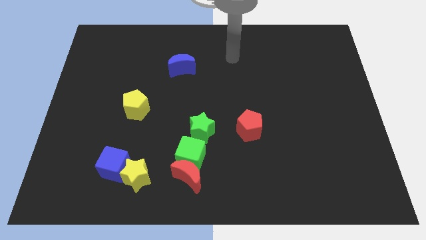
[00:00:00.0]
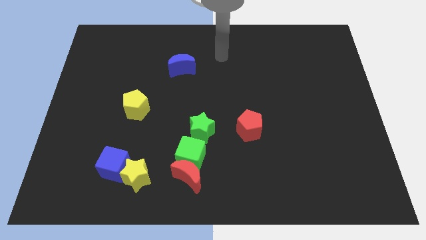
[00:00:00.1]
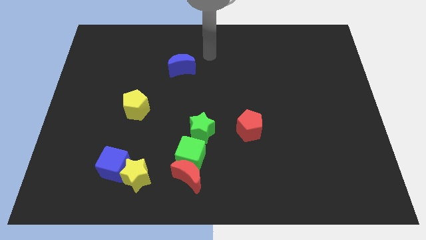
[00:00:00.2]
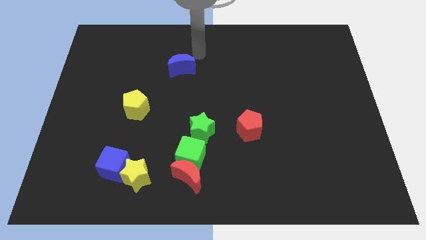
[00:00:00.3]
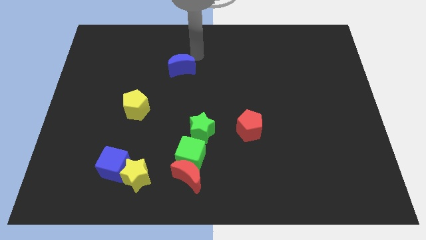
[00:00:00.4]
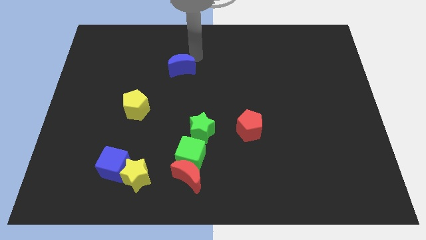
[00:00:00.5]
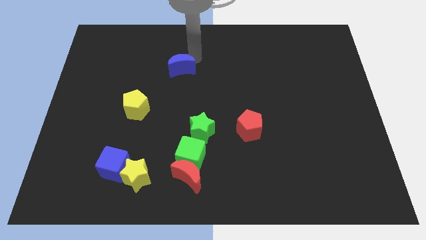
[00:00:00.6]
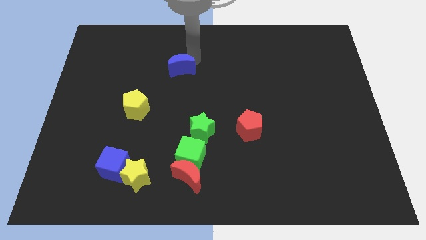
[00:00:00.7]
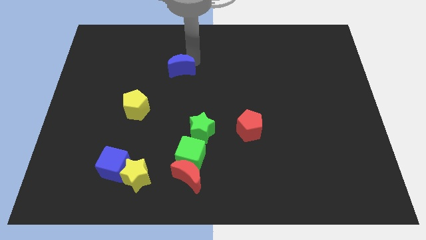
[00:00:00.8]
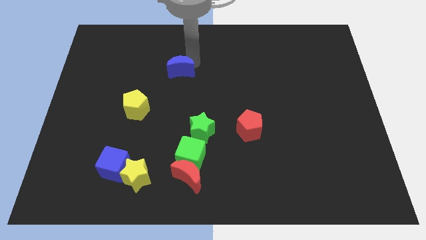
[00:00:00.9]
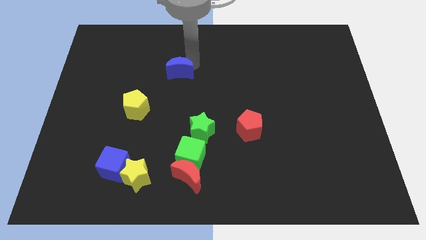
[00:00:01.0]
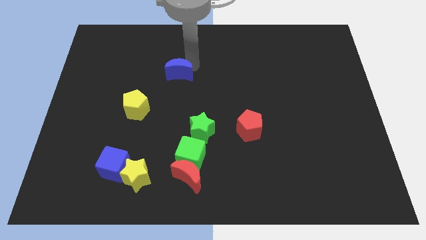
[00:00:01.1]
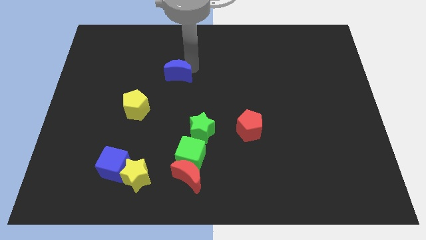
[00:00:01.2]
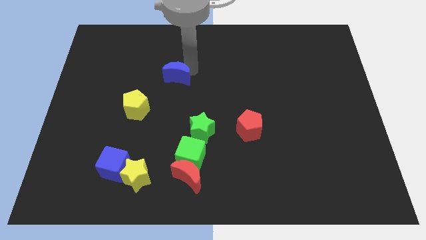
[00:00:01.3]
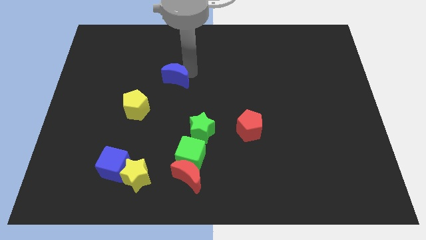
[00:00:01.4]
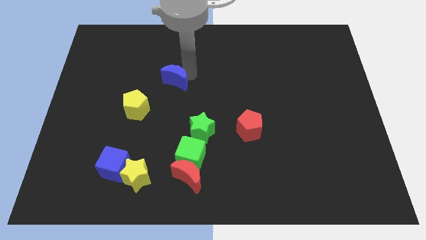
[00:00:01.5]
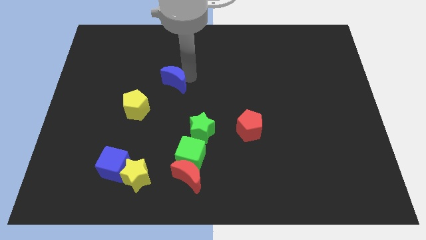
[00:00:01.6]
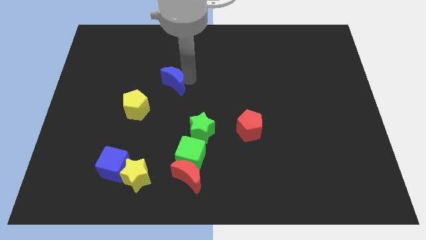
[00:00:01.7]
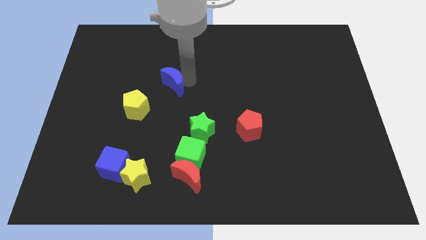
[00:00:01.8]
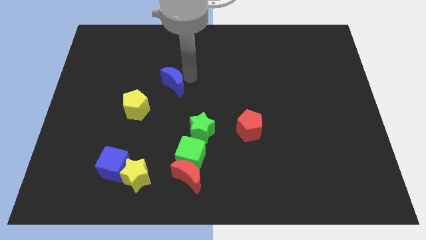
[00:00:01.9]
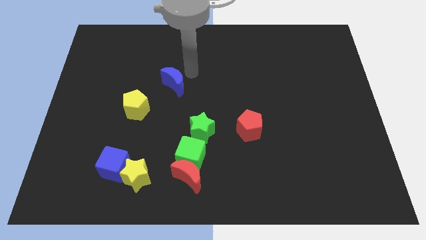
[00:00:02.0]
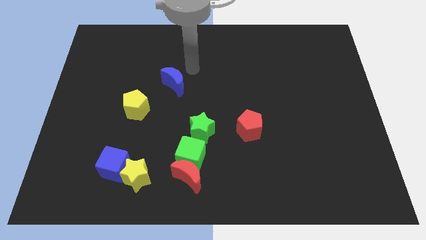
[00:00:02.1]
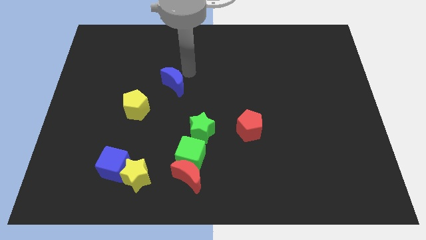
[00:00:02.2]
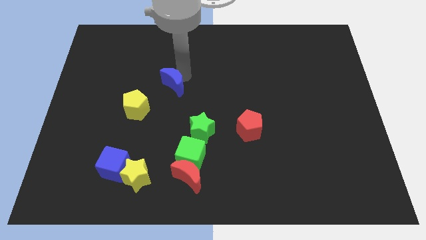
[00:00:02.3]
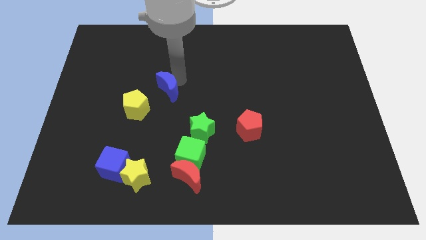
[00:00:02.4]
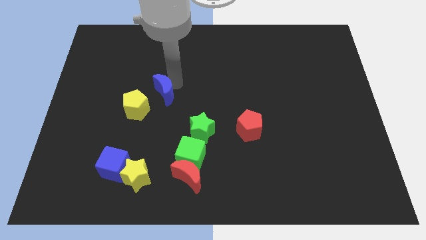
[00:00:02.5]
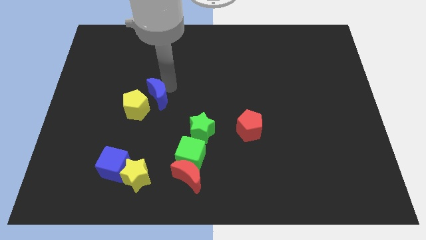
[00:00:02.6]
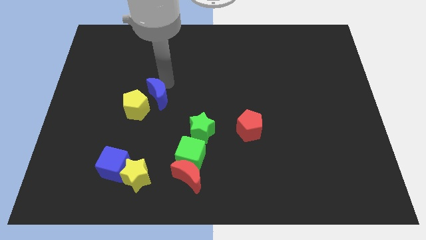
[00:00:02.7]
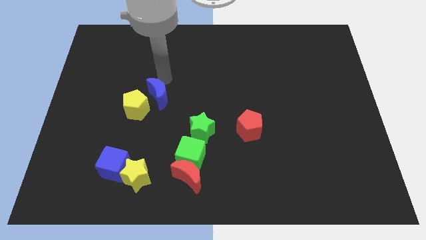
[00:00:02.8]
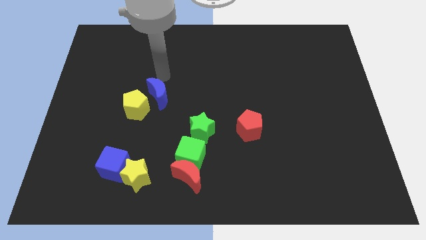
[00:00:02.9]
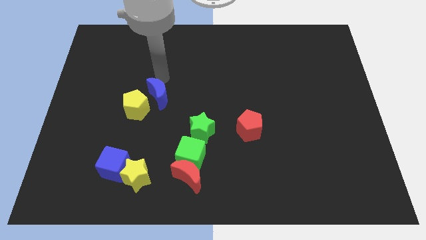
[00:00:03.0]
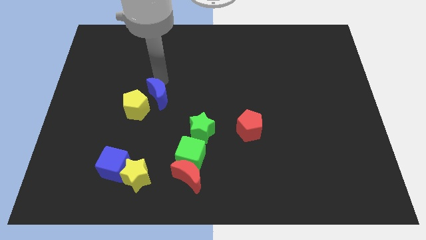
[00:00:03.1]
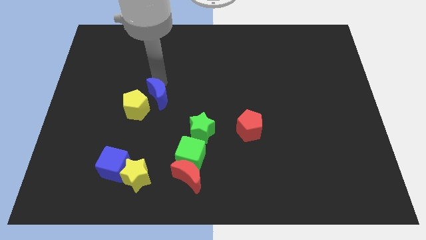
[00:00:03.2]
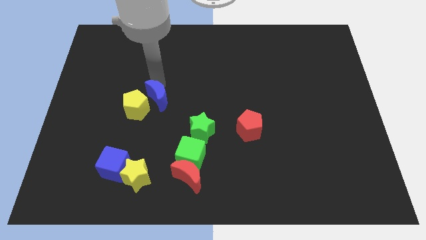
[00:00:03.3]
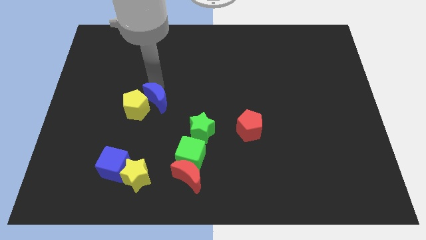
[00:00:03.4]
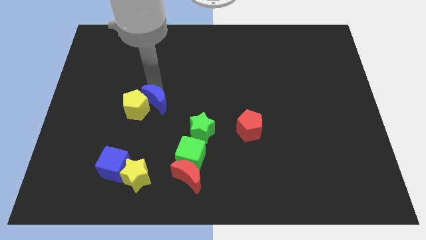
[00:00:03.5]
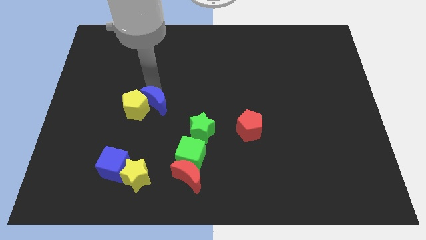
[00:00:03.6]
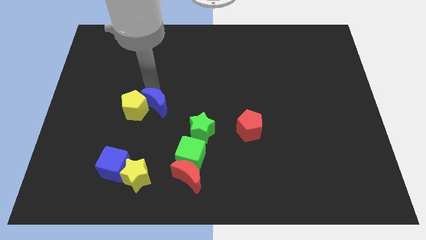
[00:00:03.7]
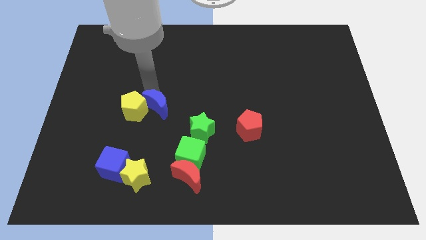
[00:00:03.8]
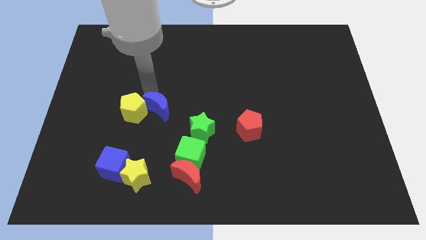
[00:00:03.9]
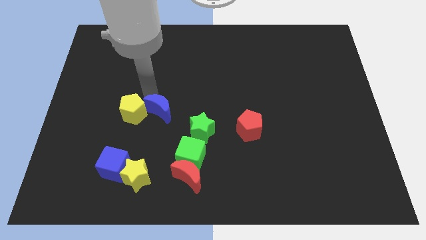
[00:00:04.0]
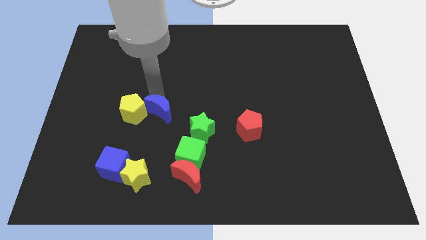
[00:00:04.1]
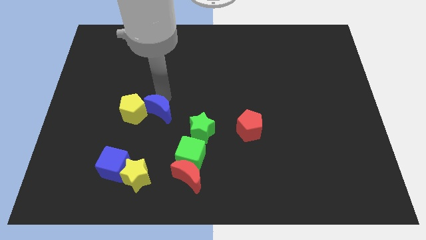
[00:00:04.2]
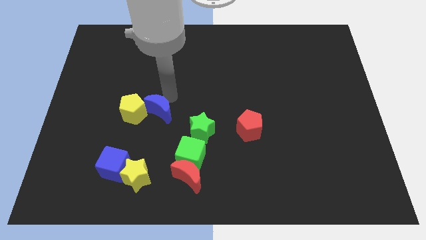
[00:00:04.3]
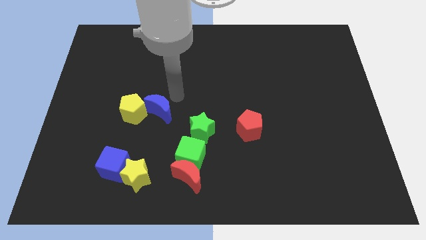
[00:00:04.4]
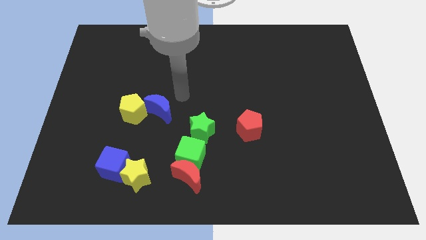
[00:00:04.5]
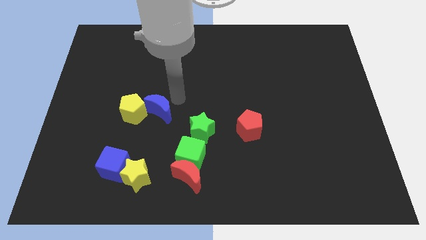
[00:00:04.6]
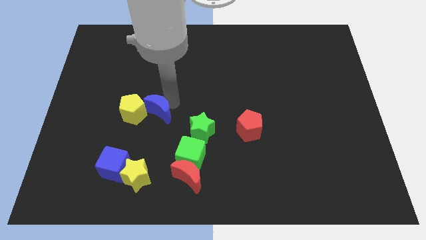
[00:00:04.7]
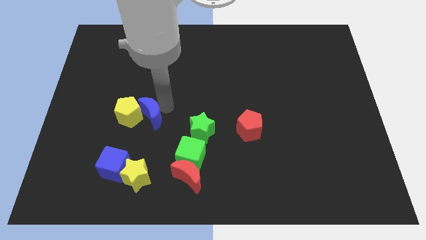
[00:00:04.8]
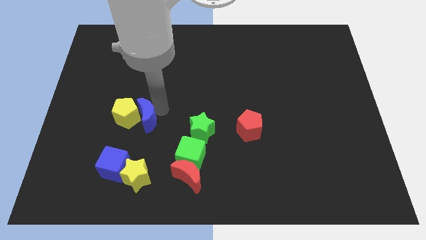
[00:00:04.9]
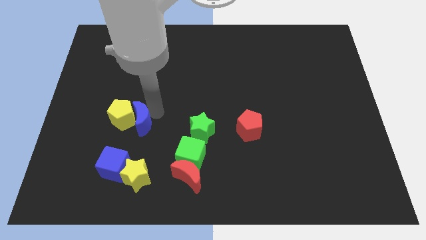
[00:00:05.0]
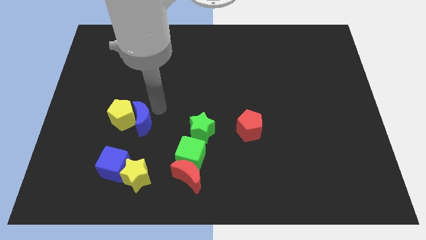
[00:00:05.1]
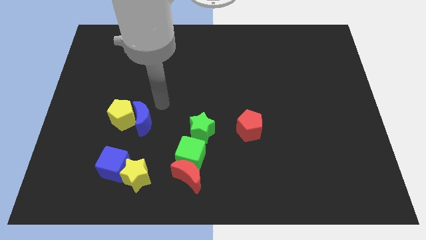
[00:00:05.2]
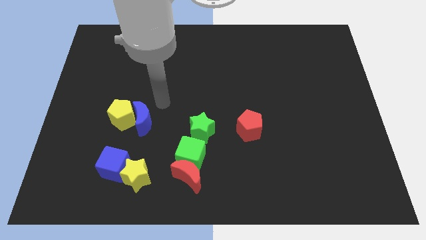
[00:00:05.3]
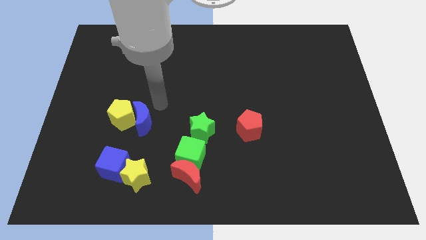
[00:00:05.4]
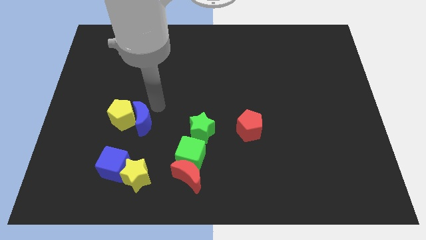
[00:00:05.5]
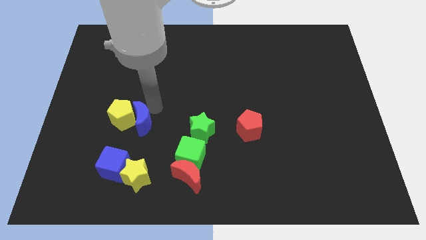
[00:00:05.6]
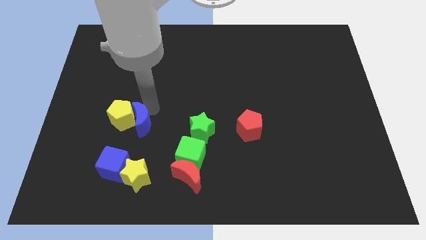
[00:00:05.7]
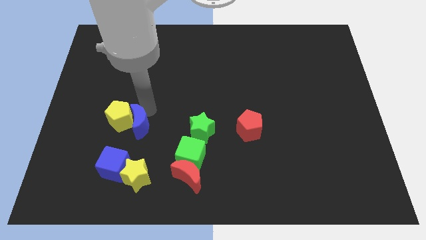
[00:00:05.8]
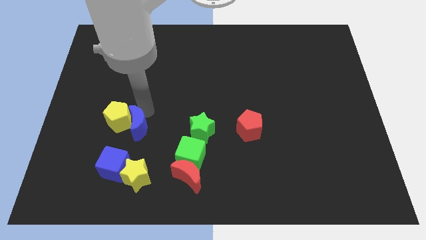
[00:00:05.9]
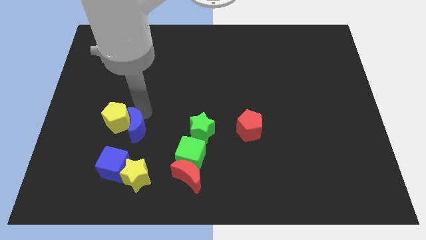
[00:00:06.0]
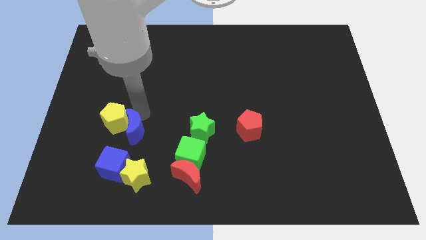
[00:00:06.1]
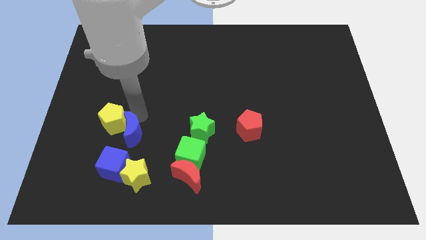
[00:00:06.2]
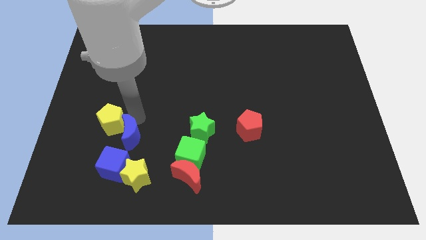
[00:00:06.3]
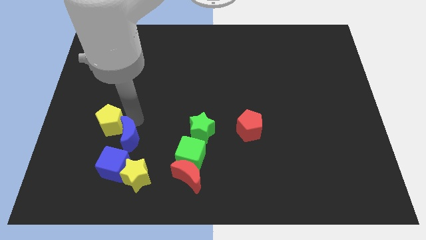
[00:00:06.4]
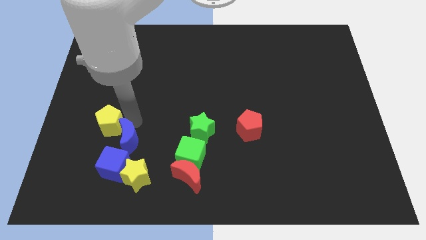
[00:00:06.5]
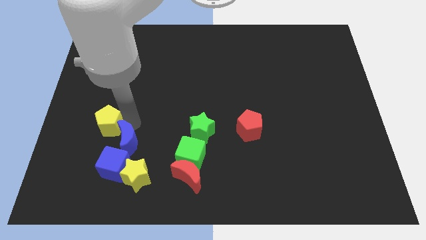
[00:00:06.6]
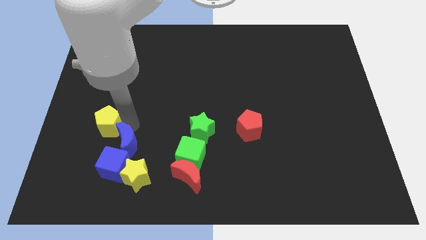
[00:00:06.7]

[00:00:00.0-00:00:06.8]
put the blue moon next to the blue cube

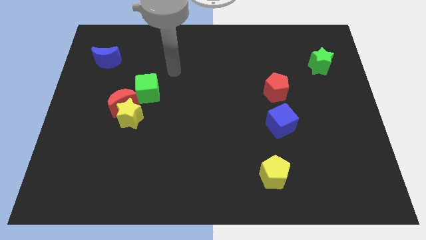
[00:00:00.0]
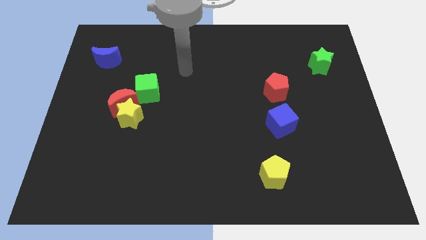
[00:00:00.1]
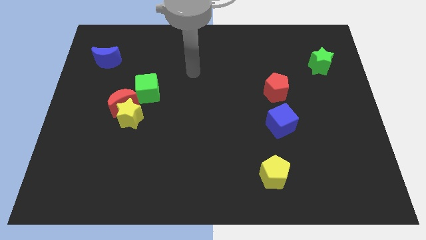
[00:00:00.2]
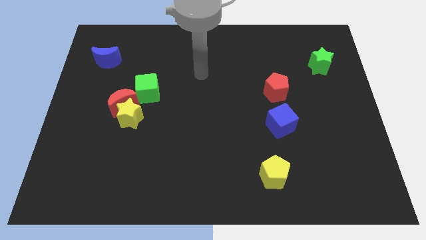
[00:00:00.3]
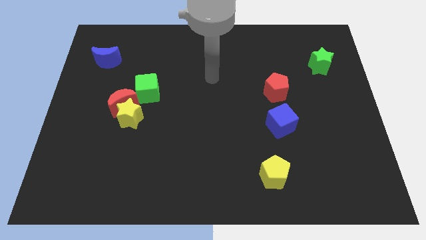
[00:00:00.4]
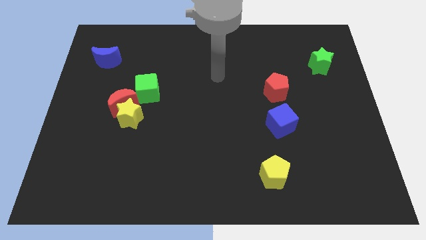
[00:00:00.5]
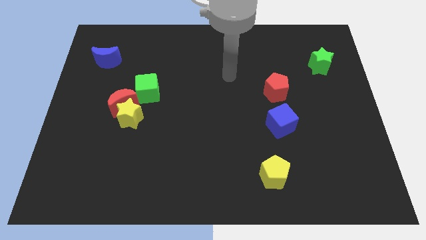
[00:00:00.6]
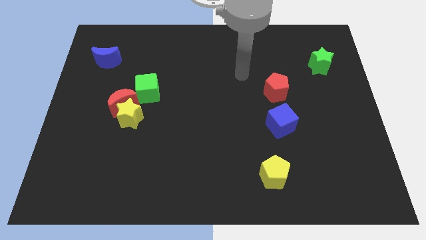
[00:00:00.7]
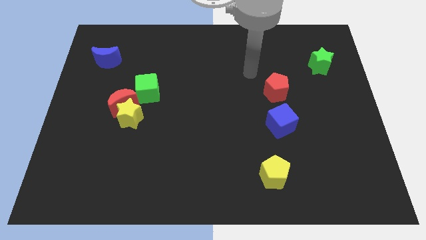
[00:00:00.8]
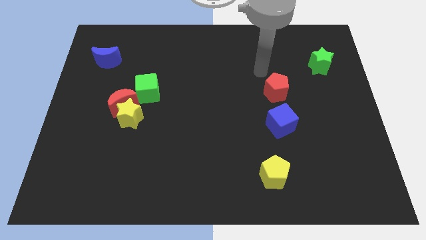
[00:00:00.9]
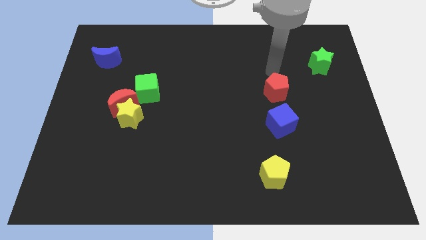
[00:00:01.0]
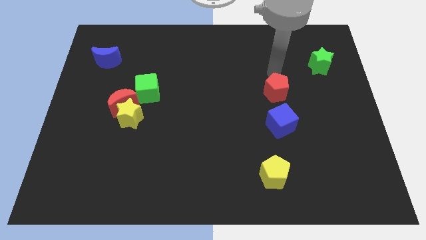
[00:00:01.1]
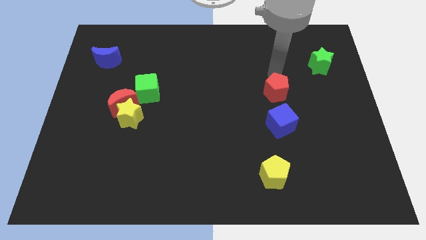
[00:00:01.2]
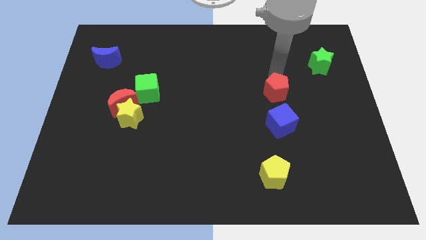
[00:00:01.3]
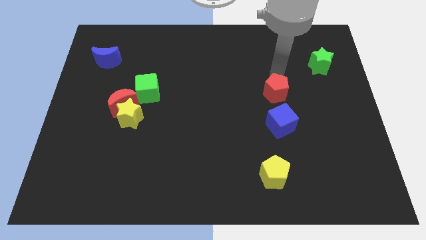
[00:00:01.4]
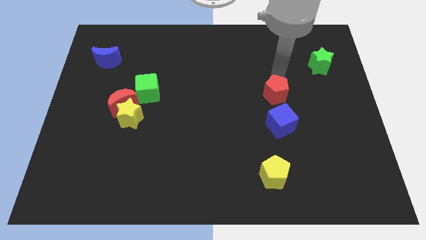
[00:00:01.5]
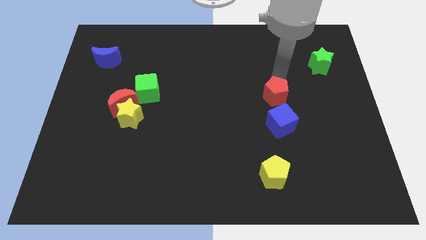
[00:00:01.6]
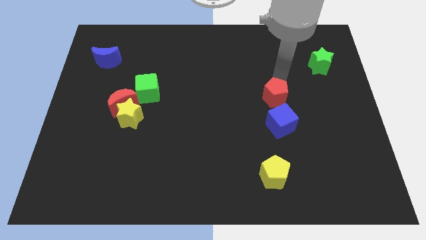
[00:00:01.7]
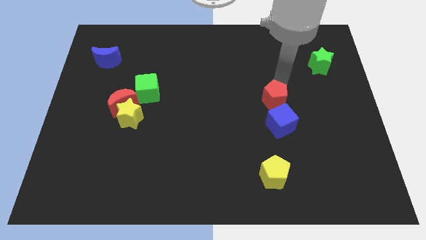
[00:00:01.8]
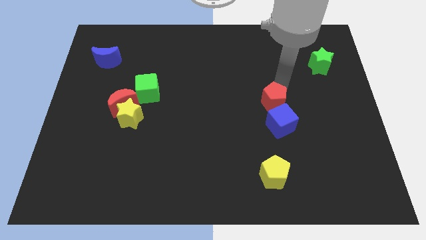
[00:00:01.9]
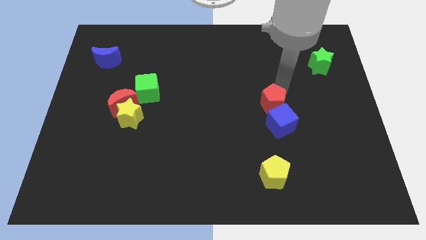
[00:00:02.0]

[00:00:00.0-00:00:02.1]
push the red pentagon towards the blue cube
